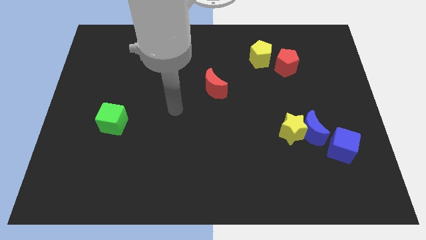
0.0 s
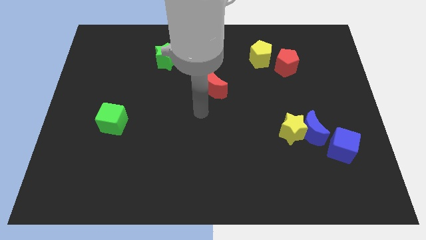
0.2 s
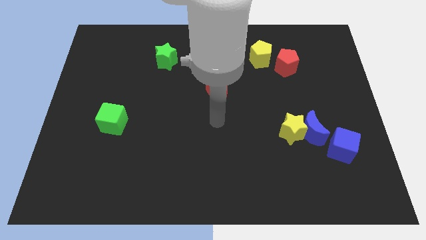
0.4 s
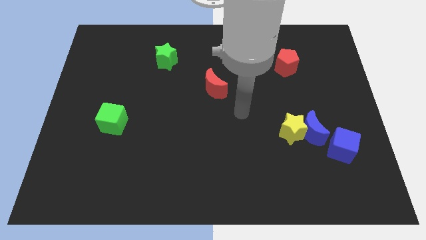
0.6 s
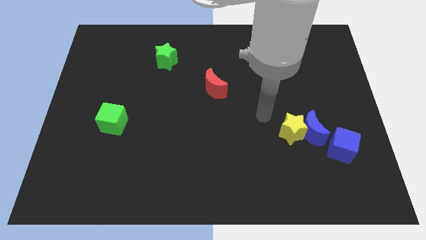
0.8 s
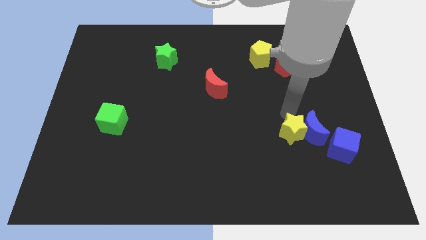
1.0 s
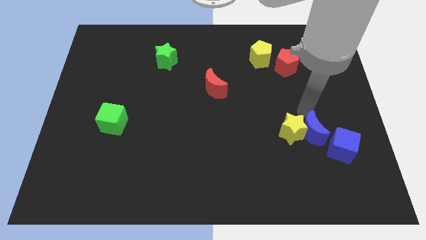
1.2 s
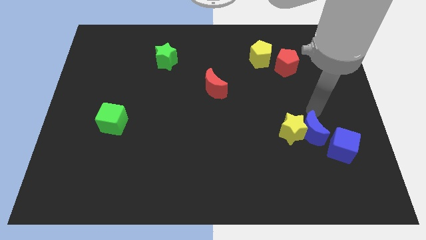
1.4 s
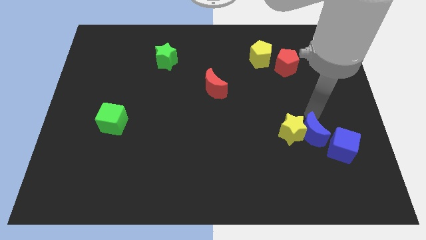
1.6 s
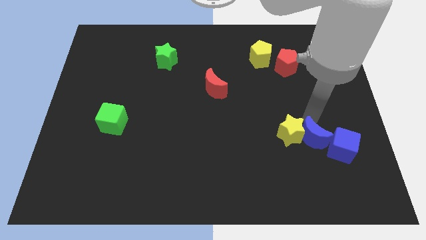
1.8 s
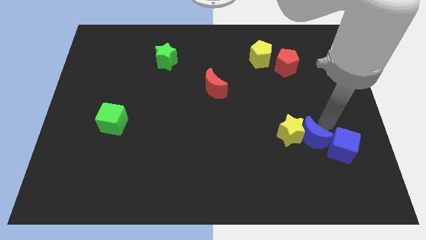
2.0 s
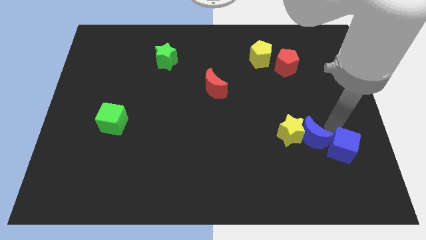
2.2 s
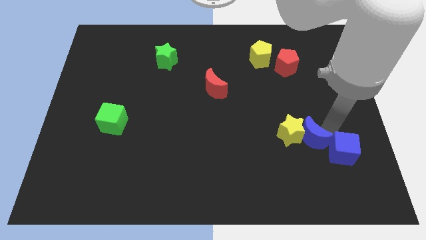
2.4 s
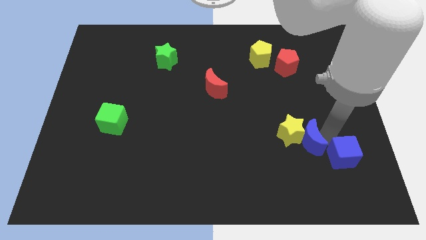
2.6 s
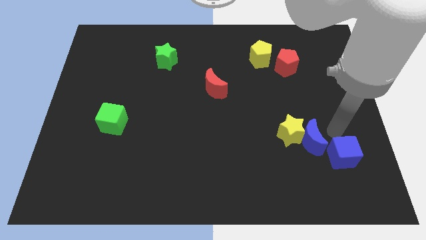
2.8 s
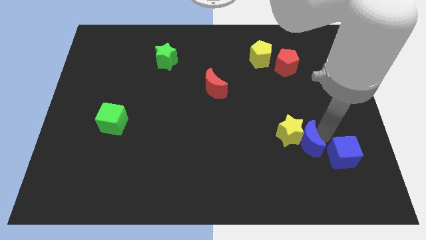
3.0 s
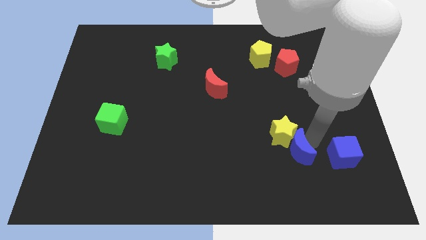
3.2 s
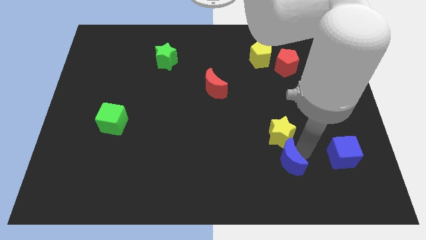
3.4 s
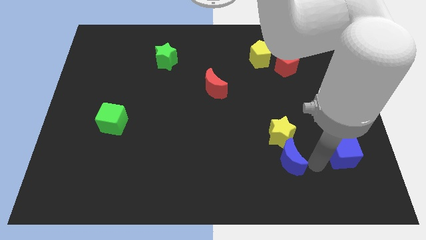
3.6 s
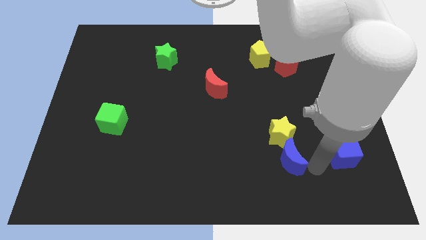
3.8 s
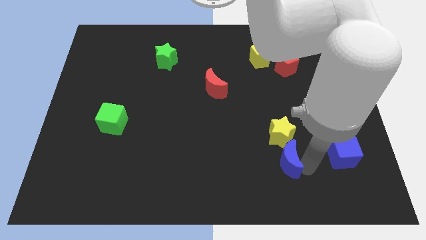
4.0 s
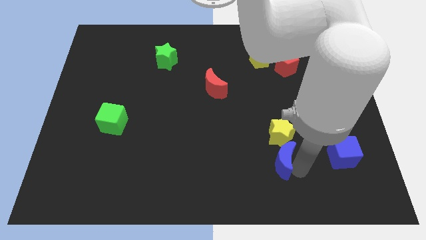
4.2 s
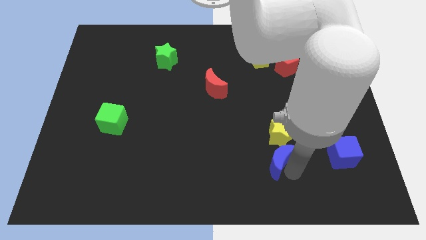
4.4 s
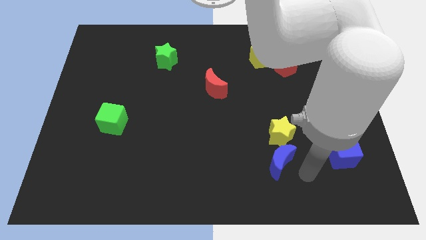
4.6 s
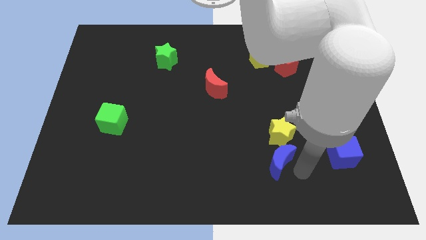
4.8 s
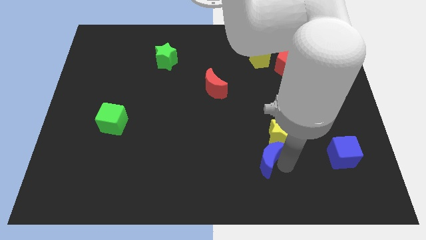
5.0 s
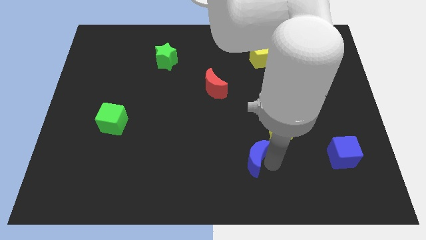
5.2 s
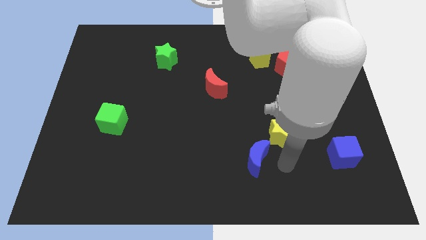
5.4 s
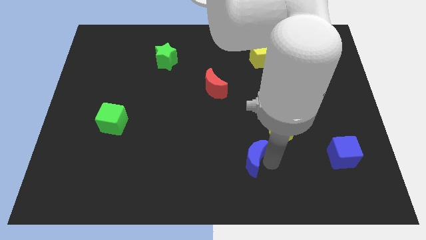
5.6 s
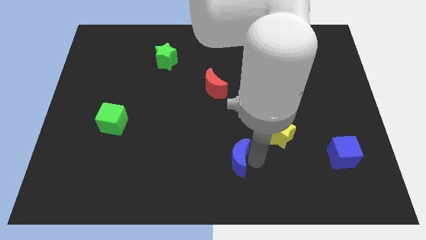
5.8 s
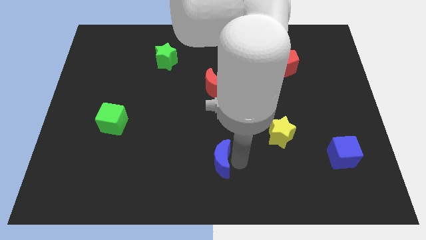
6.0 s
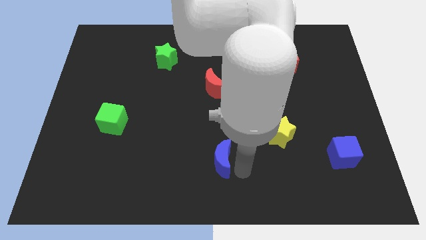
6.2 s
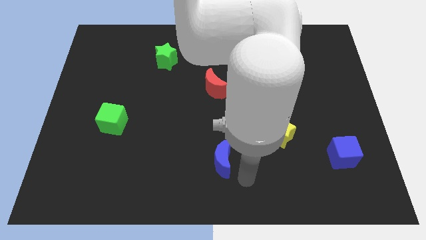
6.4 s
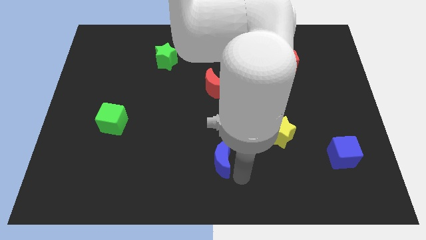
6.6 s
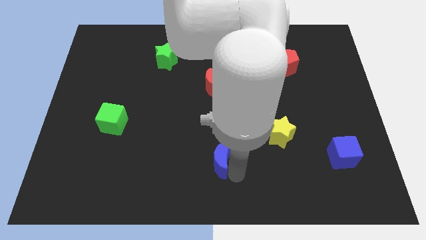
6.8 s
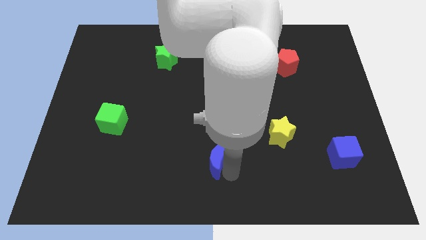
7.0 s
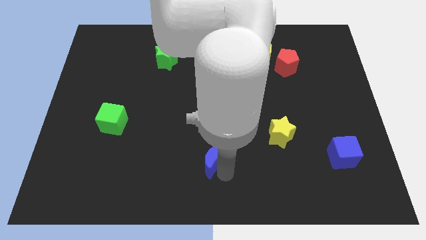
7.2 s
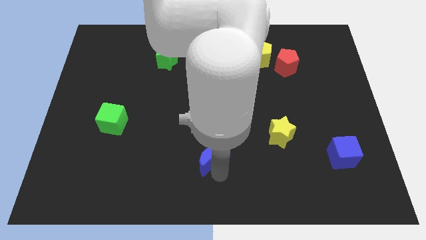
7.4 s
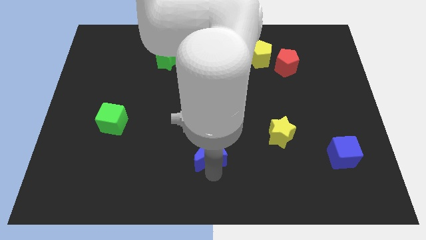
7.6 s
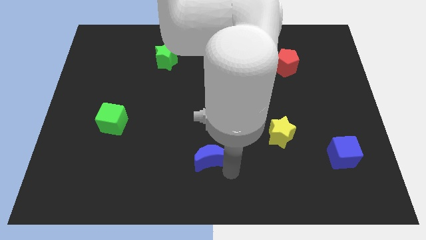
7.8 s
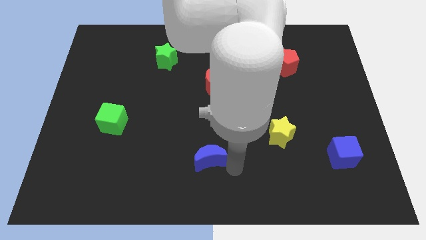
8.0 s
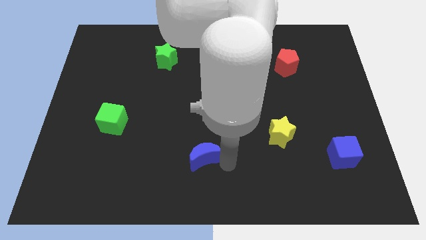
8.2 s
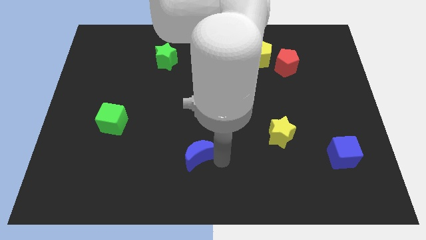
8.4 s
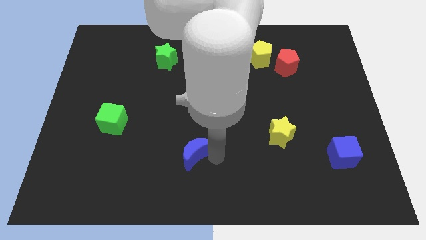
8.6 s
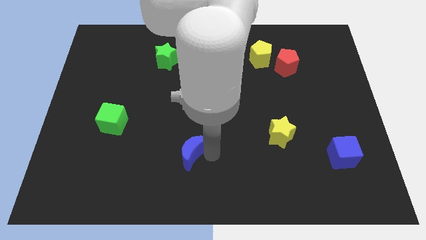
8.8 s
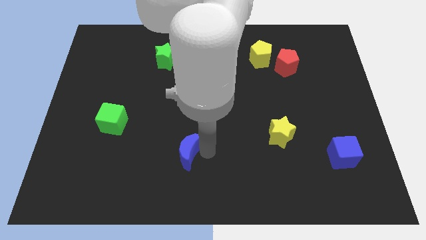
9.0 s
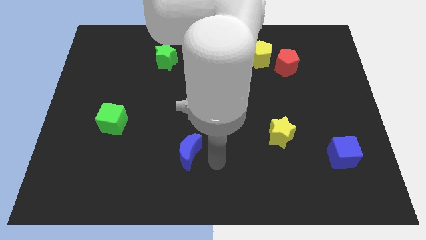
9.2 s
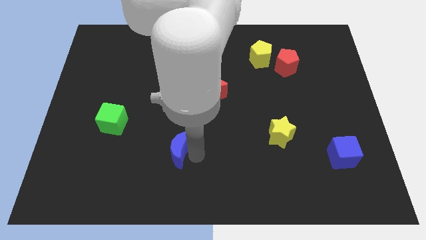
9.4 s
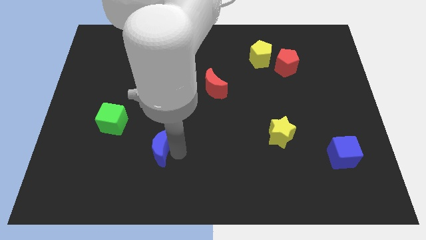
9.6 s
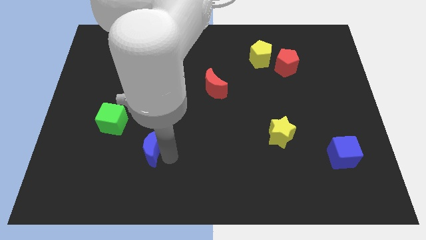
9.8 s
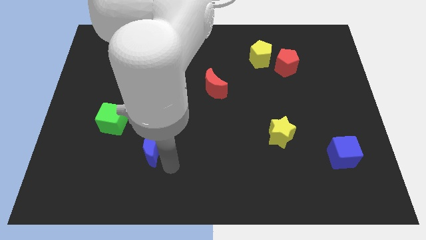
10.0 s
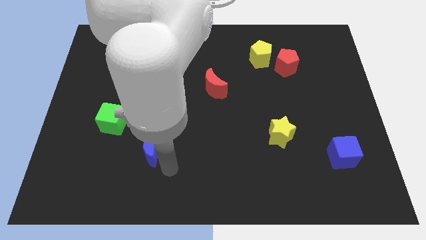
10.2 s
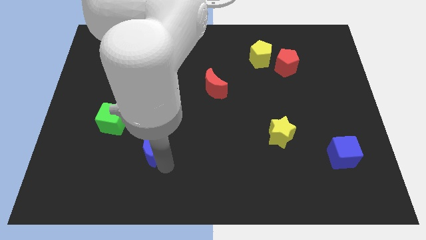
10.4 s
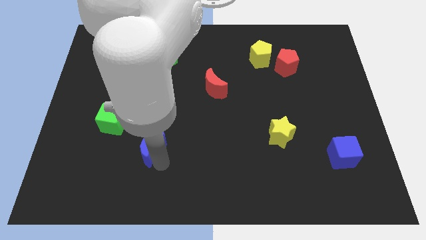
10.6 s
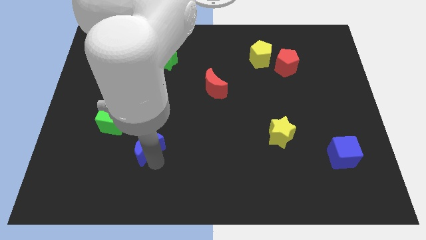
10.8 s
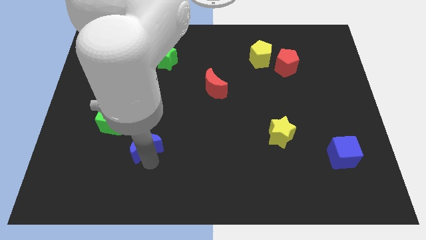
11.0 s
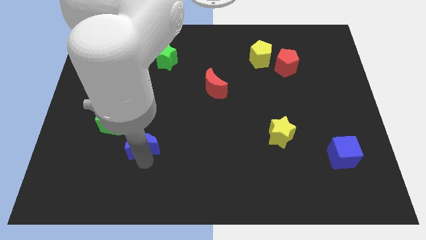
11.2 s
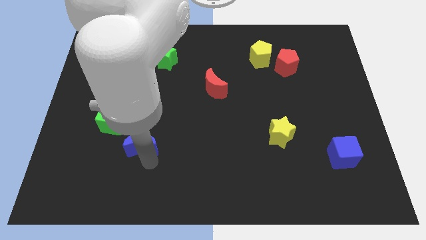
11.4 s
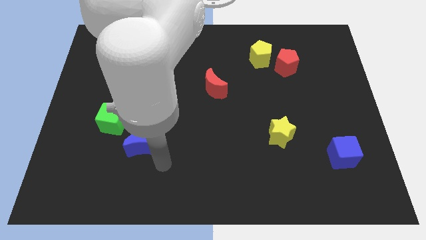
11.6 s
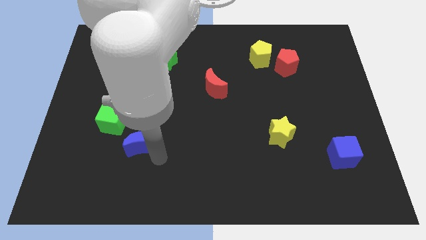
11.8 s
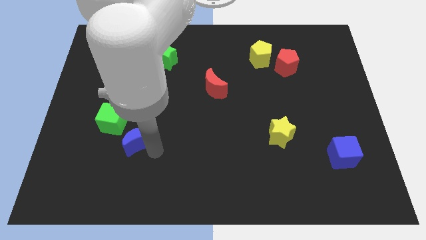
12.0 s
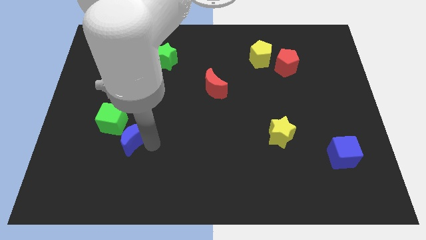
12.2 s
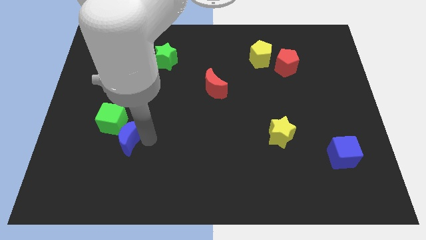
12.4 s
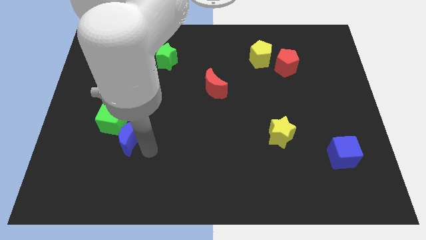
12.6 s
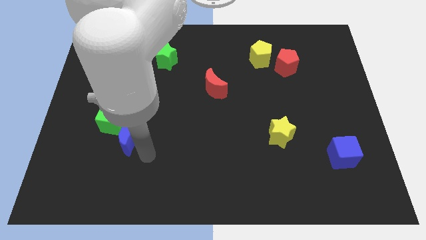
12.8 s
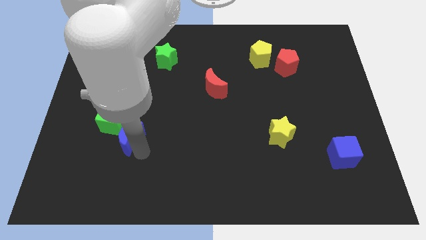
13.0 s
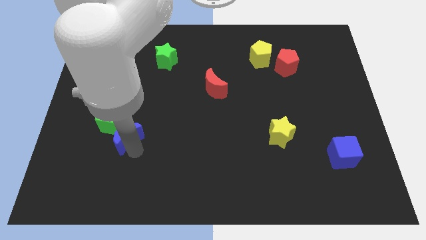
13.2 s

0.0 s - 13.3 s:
put the blue moon next to the green cube

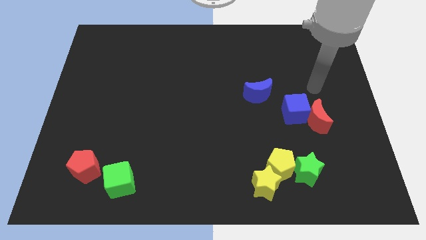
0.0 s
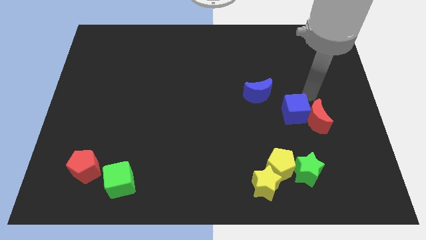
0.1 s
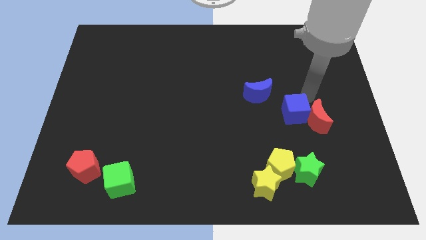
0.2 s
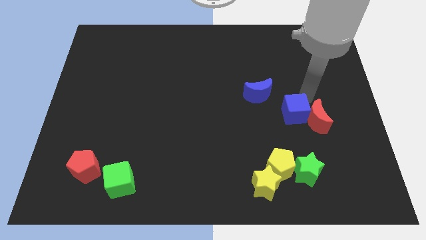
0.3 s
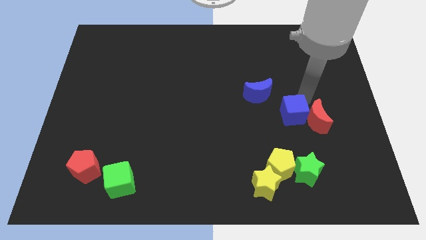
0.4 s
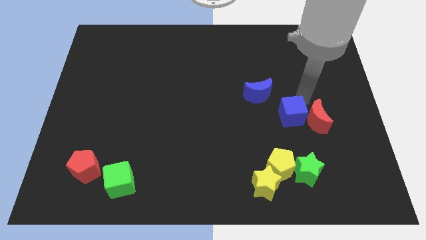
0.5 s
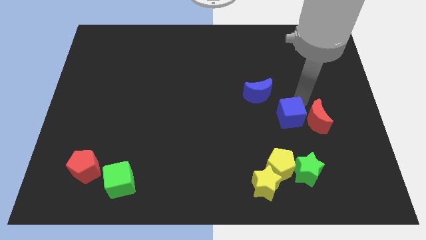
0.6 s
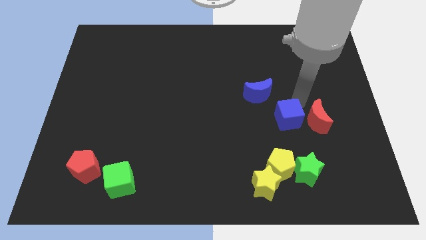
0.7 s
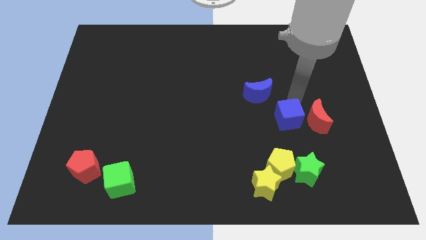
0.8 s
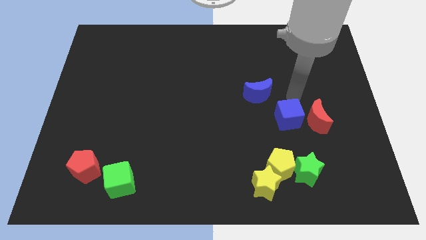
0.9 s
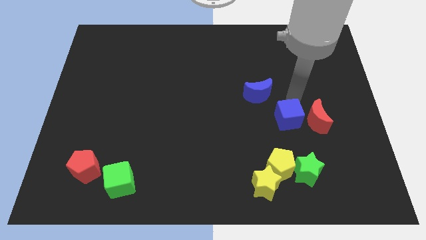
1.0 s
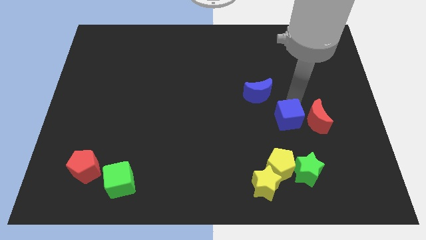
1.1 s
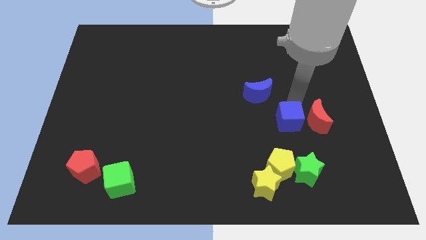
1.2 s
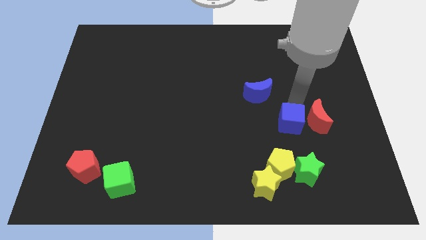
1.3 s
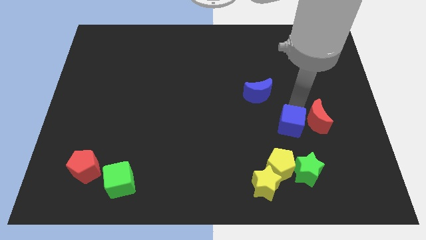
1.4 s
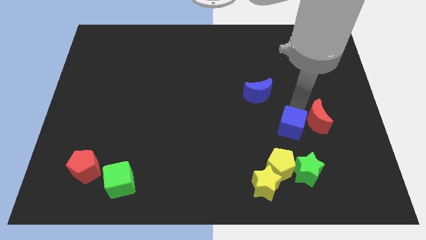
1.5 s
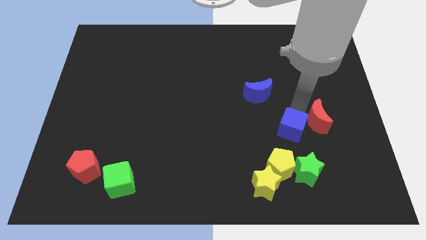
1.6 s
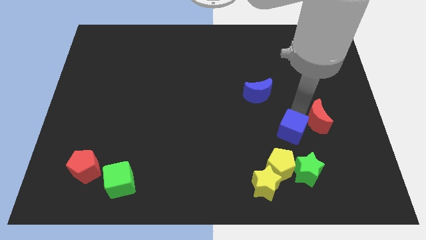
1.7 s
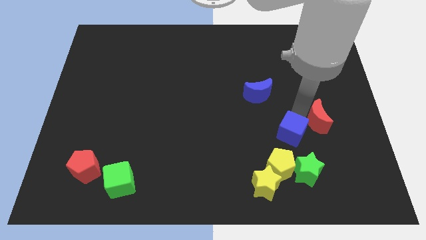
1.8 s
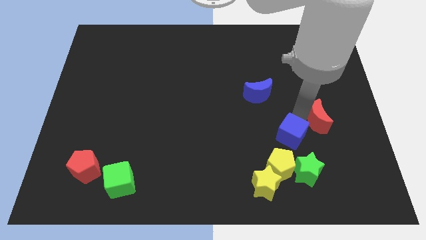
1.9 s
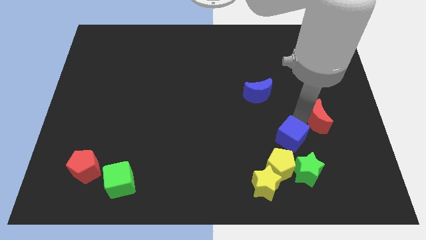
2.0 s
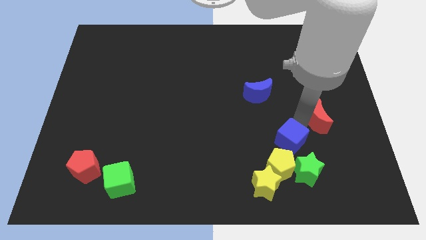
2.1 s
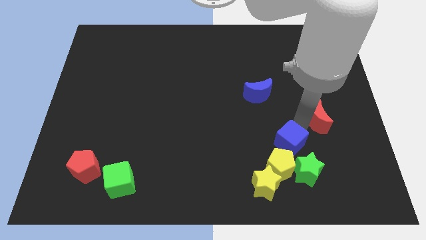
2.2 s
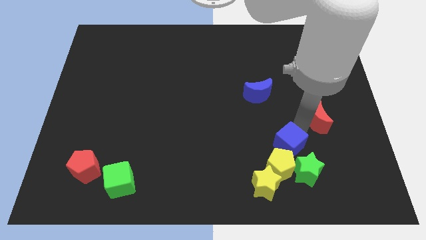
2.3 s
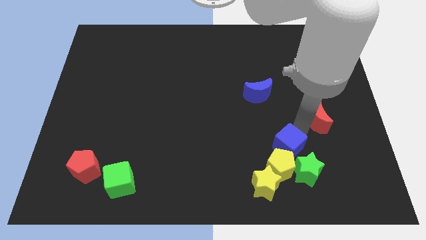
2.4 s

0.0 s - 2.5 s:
move the blue cube close to the yellow pentagon
